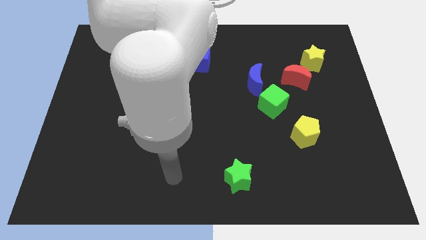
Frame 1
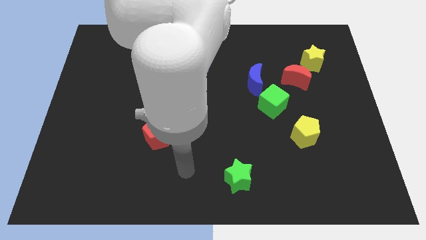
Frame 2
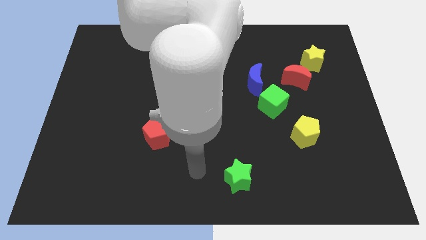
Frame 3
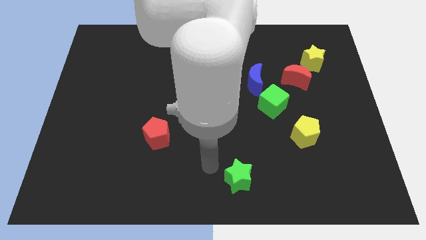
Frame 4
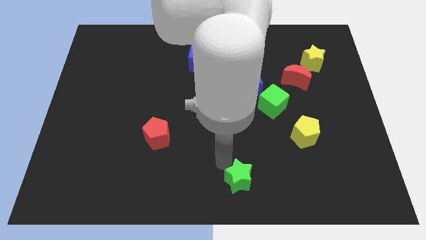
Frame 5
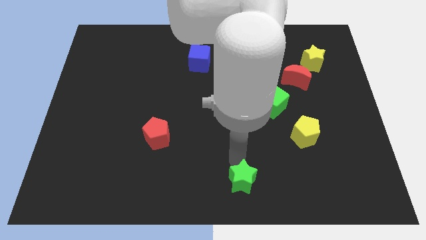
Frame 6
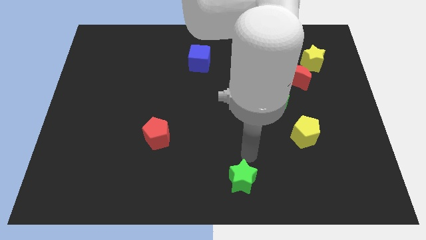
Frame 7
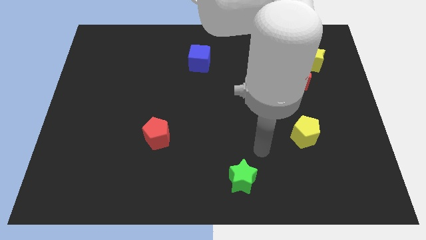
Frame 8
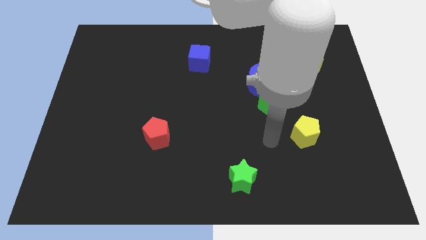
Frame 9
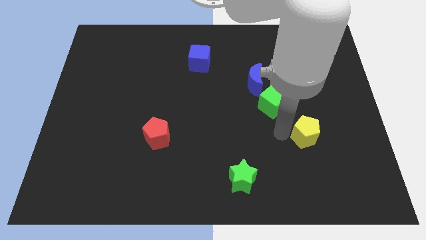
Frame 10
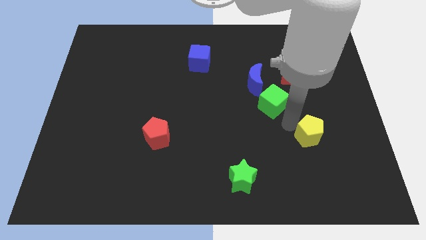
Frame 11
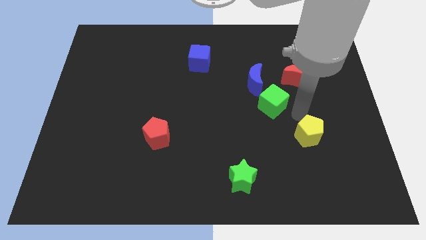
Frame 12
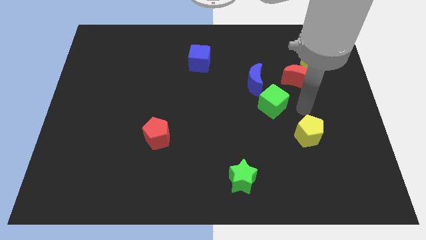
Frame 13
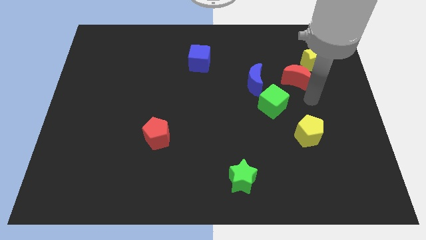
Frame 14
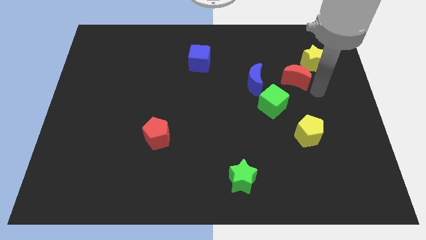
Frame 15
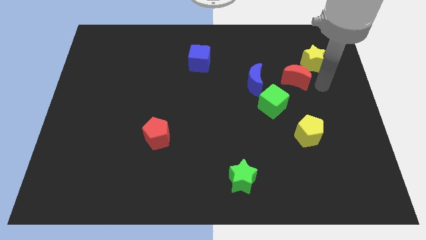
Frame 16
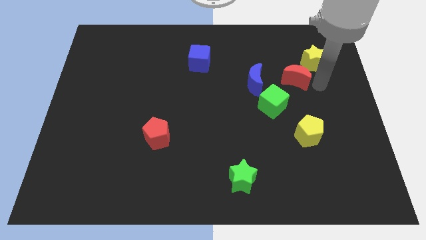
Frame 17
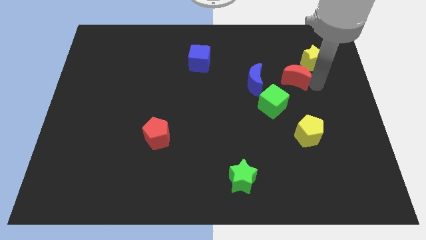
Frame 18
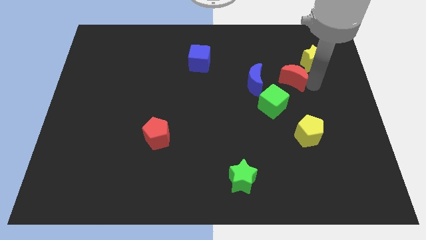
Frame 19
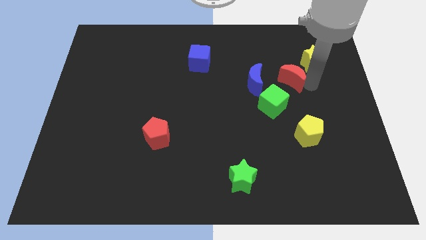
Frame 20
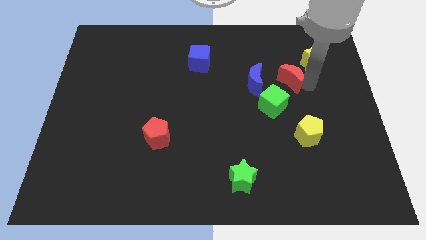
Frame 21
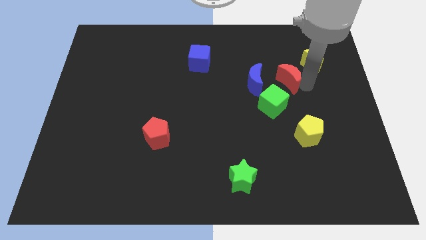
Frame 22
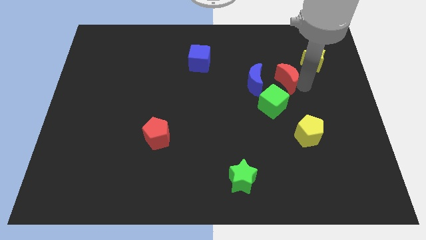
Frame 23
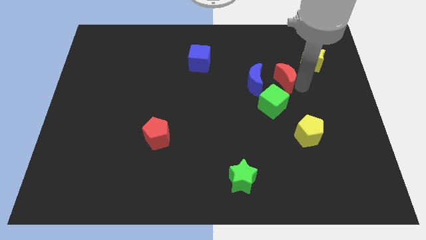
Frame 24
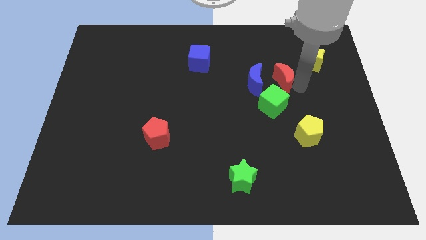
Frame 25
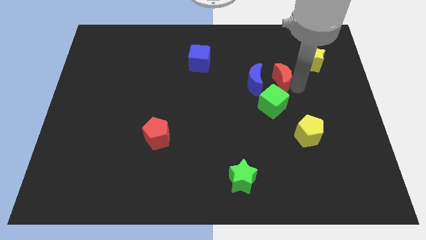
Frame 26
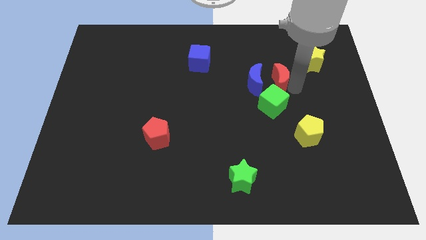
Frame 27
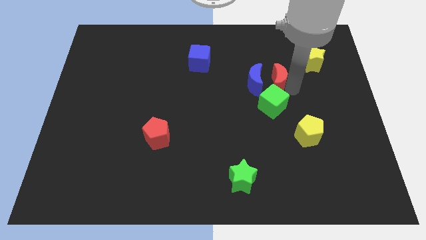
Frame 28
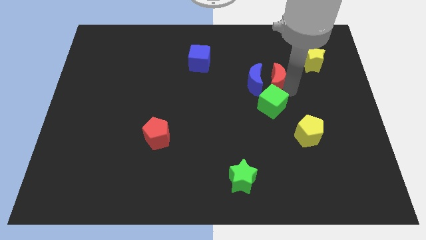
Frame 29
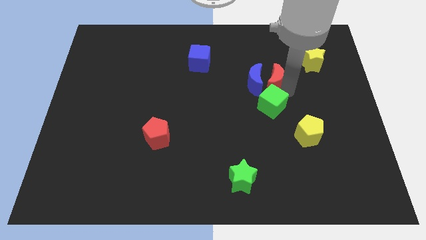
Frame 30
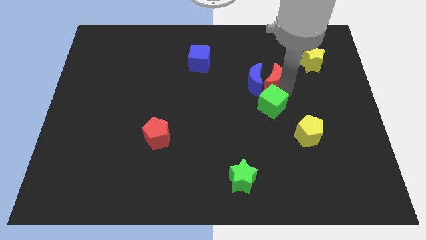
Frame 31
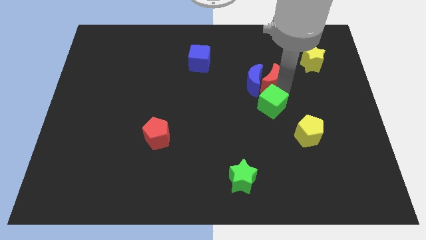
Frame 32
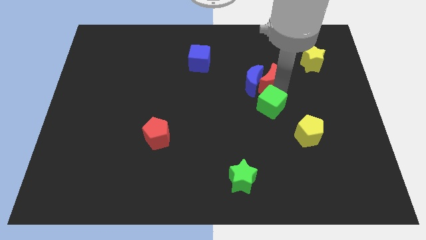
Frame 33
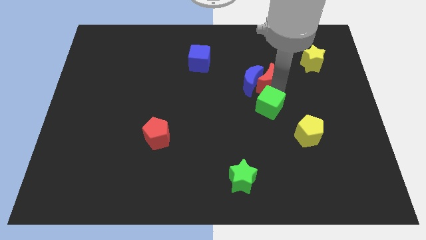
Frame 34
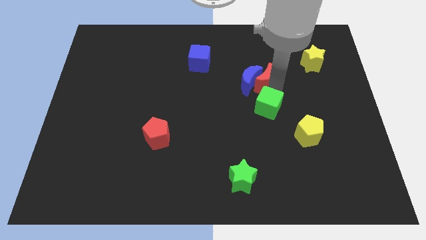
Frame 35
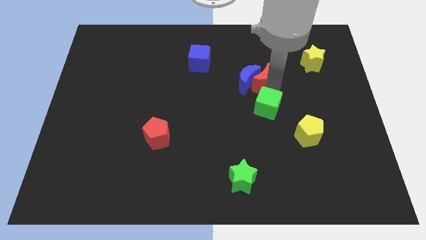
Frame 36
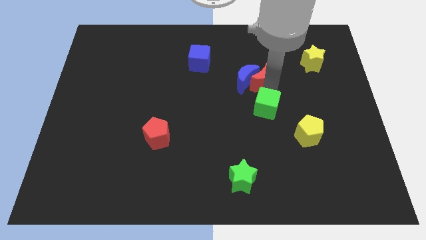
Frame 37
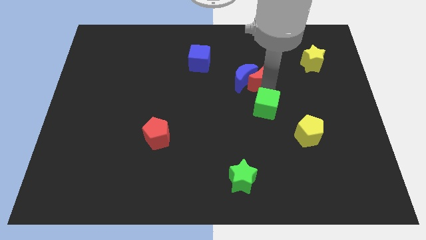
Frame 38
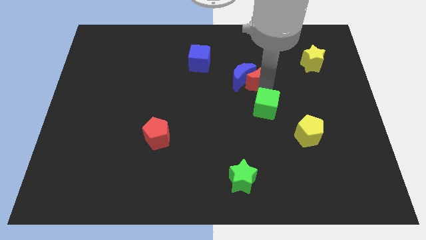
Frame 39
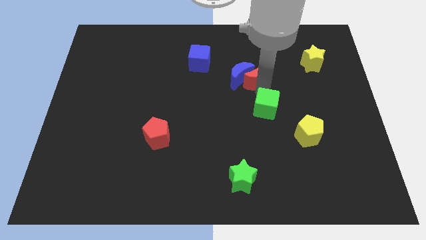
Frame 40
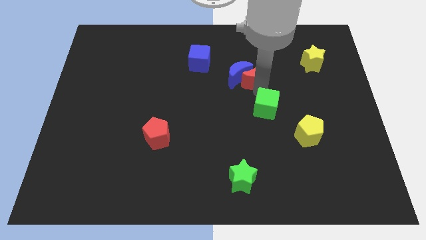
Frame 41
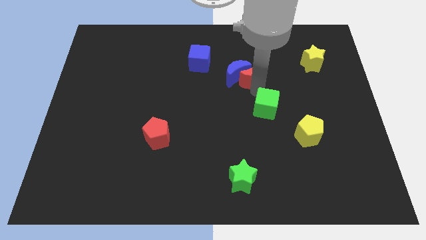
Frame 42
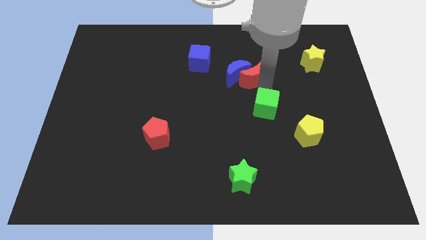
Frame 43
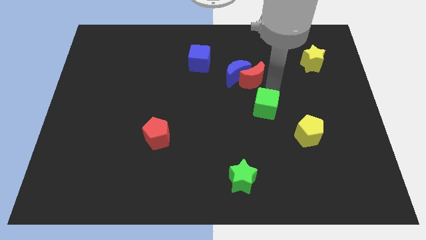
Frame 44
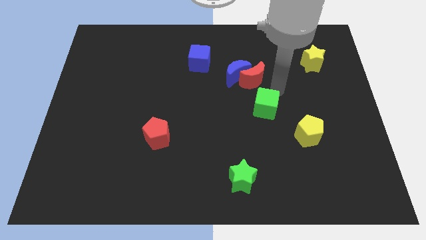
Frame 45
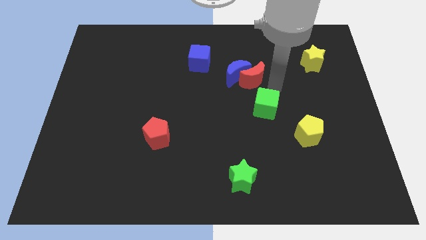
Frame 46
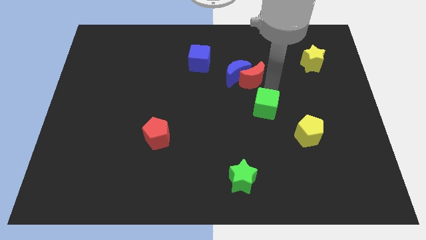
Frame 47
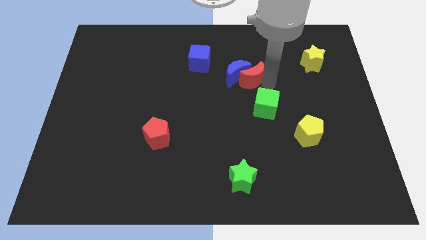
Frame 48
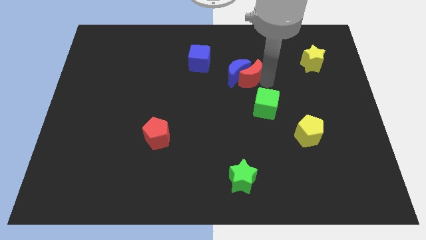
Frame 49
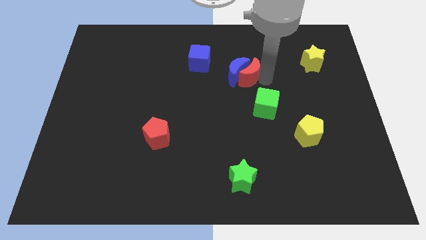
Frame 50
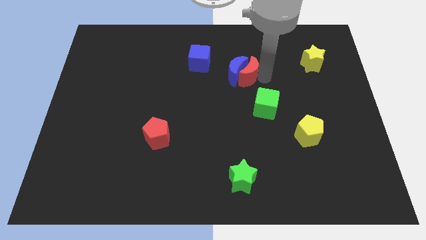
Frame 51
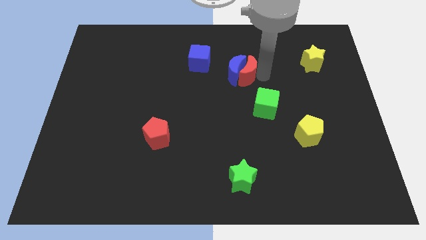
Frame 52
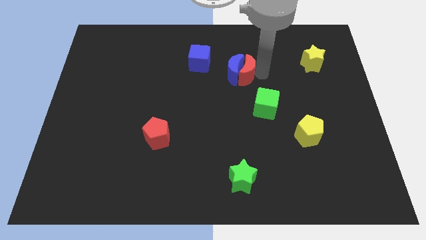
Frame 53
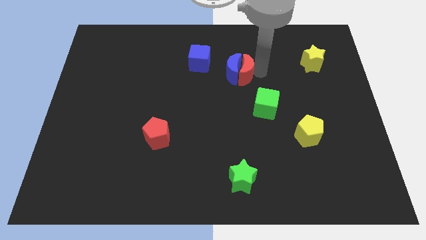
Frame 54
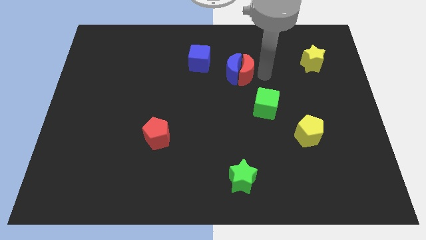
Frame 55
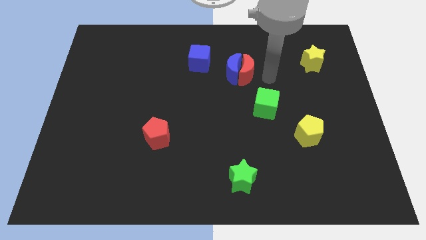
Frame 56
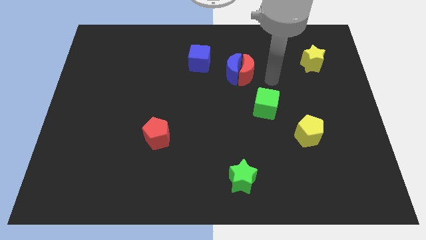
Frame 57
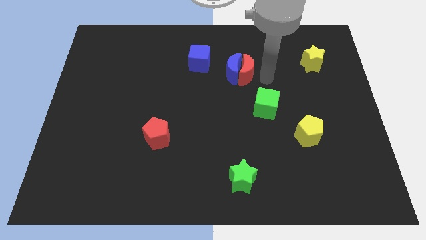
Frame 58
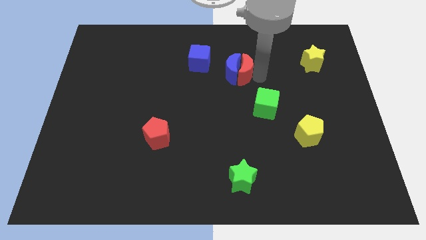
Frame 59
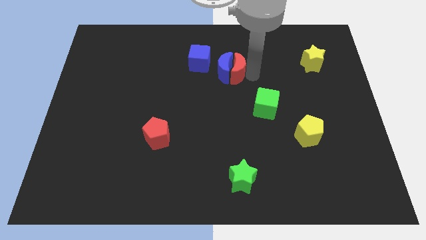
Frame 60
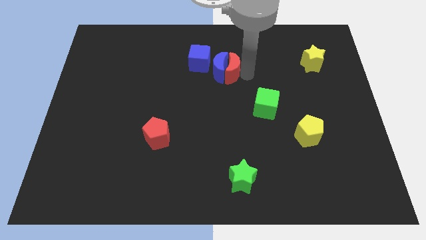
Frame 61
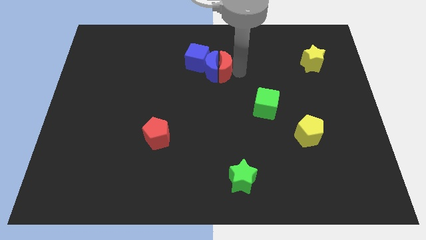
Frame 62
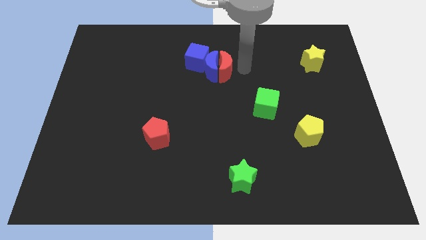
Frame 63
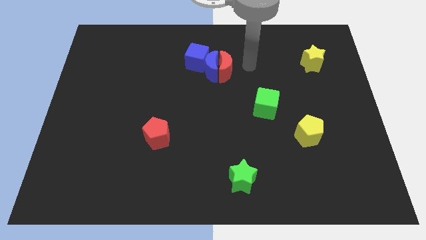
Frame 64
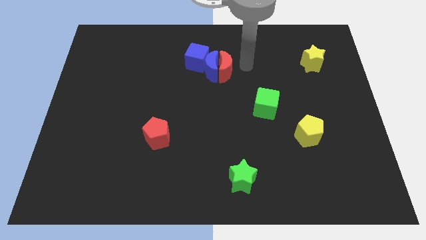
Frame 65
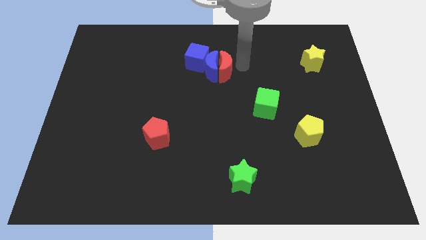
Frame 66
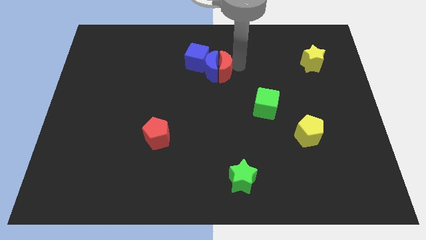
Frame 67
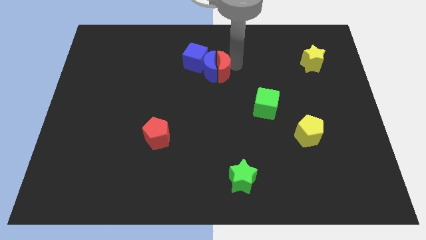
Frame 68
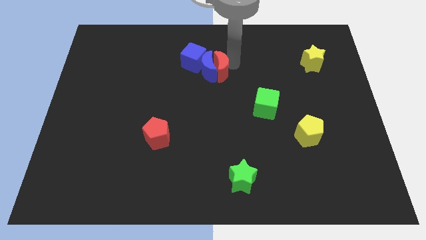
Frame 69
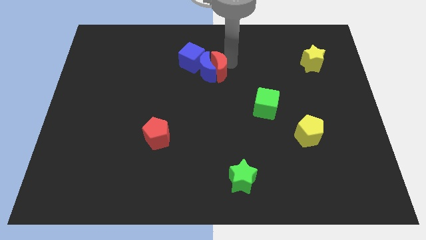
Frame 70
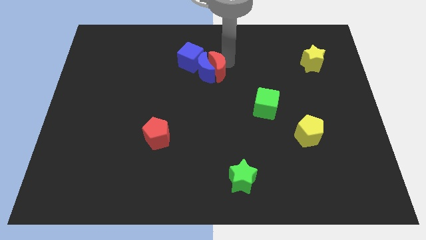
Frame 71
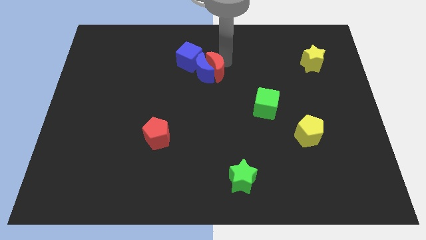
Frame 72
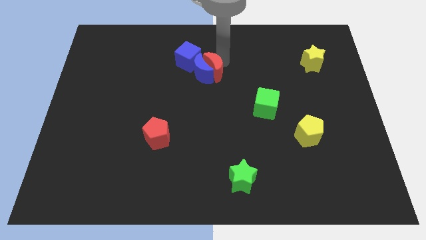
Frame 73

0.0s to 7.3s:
push the red moon left

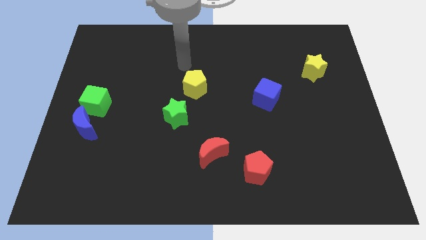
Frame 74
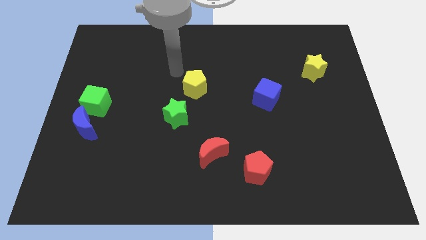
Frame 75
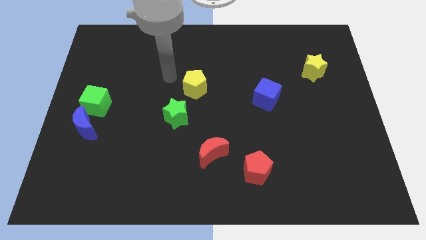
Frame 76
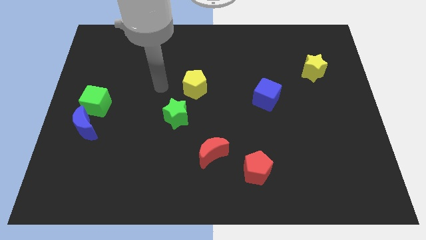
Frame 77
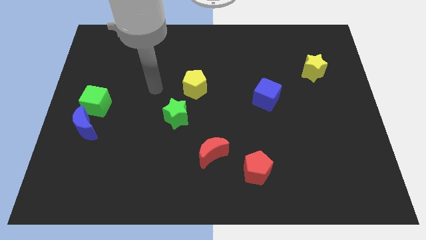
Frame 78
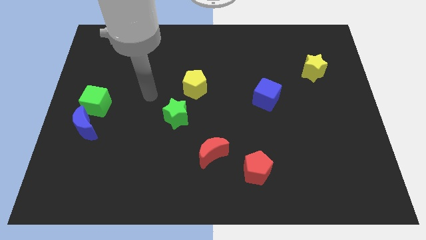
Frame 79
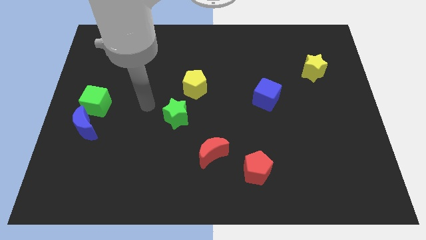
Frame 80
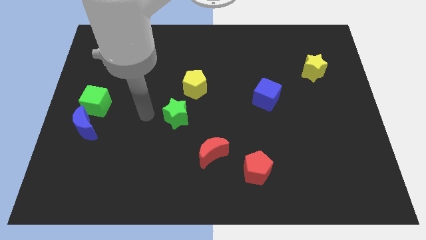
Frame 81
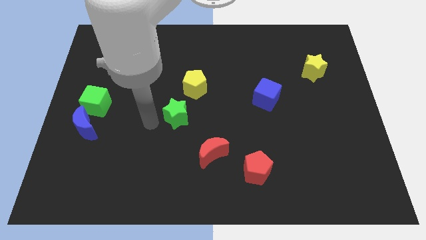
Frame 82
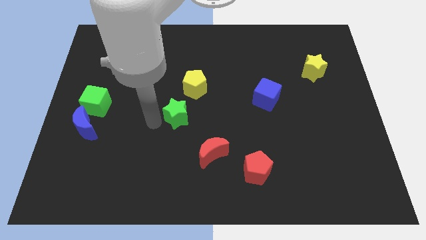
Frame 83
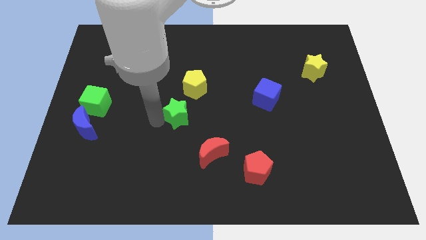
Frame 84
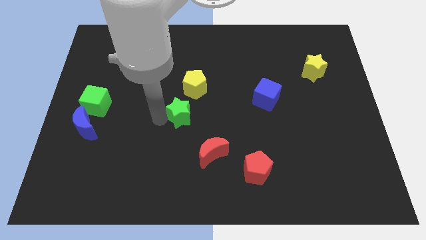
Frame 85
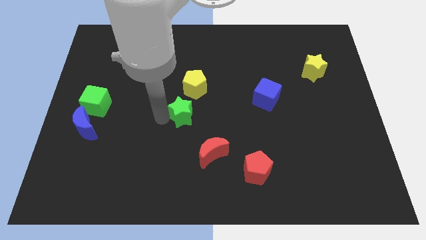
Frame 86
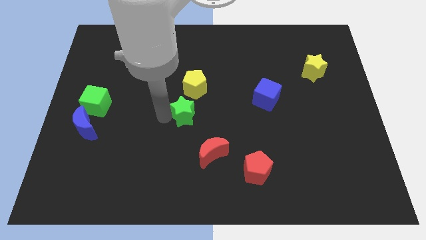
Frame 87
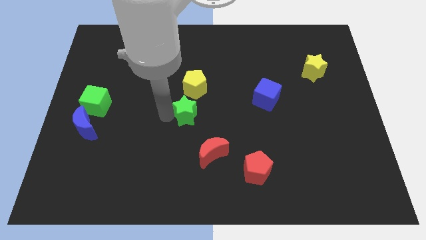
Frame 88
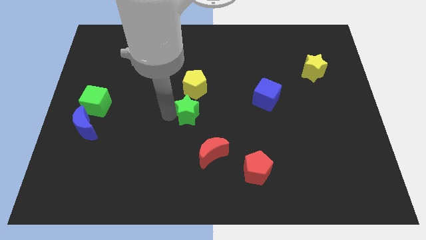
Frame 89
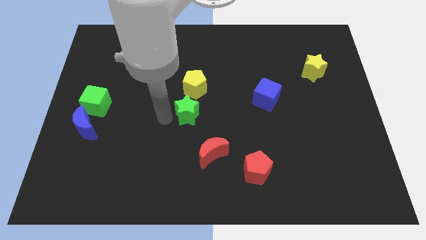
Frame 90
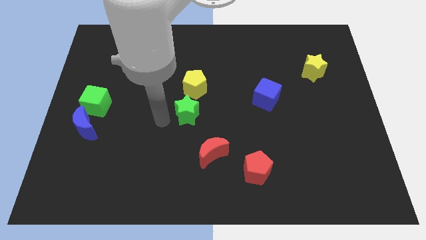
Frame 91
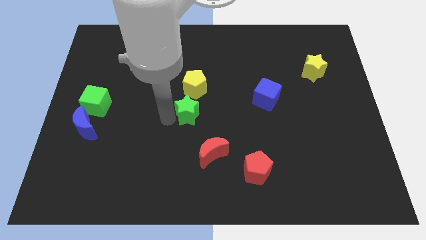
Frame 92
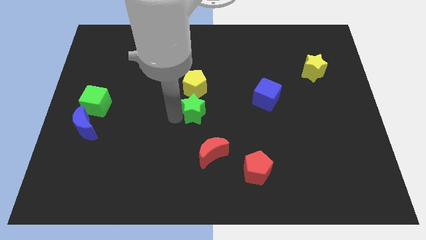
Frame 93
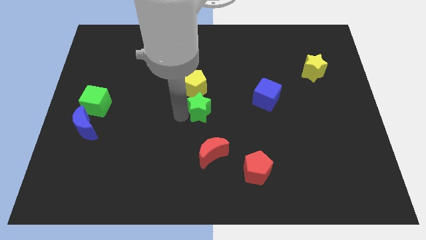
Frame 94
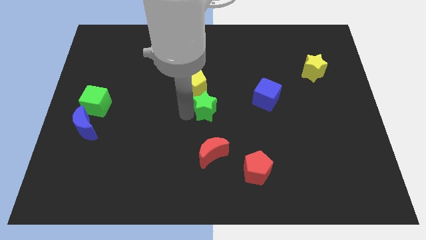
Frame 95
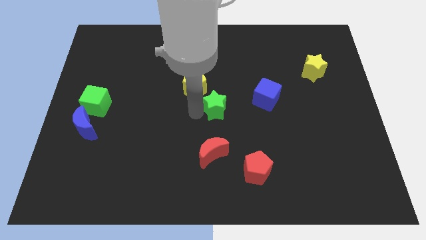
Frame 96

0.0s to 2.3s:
move the green star upwards and right diagonally somewhat
